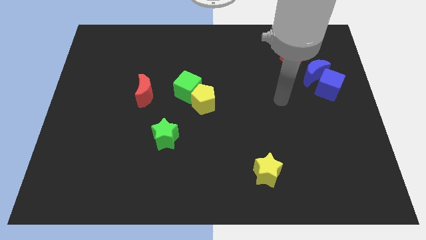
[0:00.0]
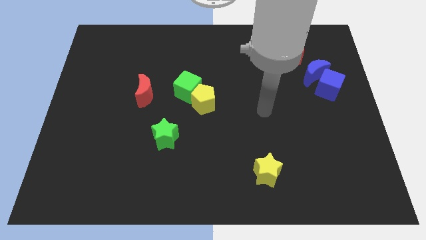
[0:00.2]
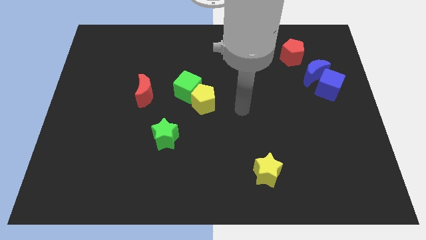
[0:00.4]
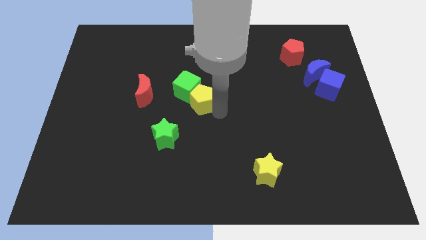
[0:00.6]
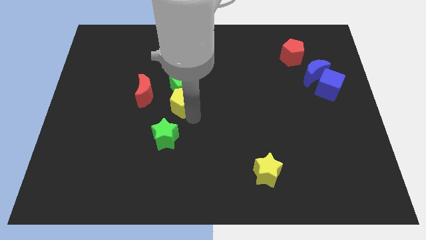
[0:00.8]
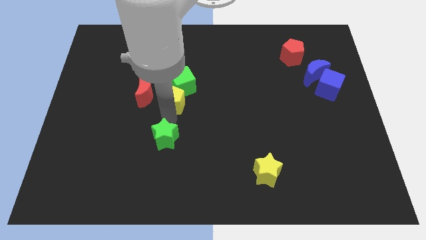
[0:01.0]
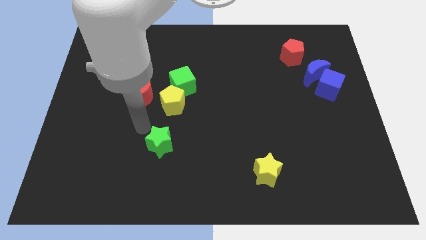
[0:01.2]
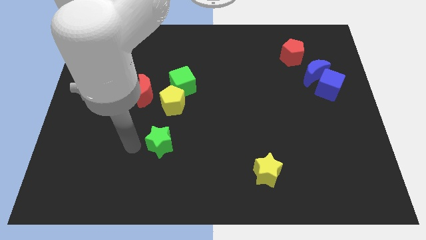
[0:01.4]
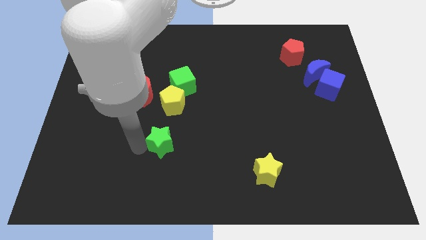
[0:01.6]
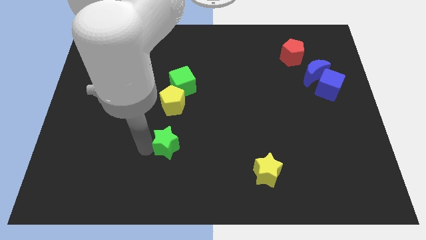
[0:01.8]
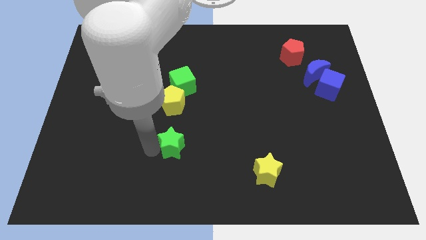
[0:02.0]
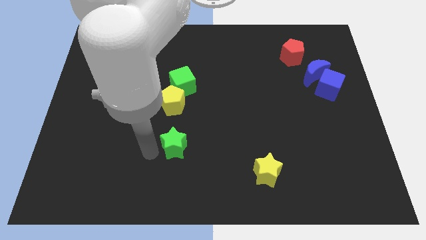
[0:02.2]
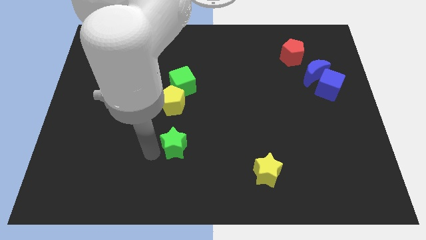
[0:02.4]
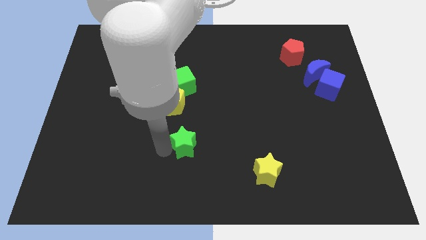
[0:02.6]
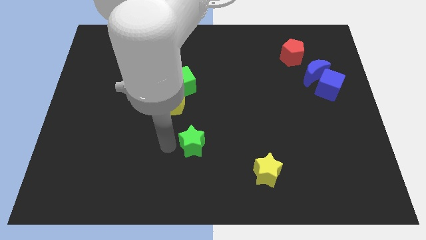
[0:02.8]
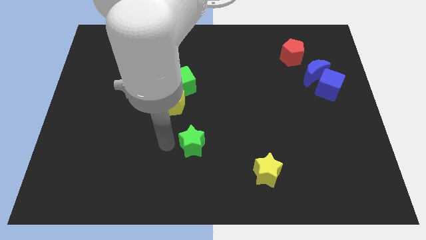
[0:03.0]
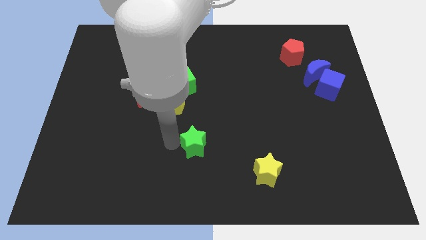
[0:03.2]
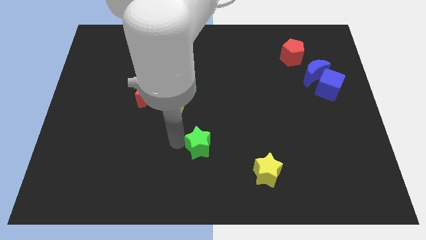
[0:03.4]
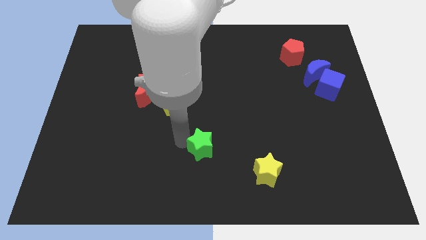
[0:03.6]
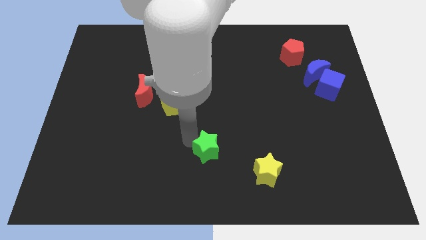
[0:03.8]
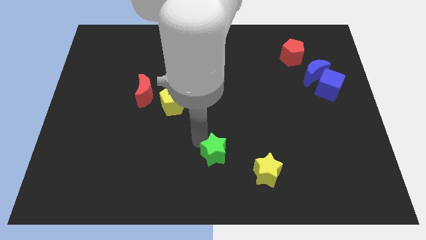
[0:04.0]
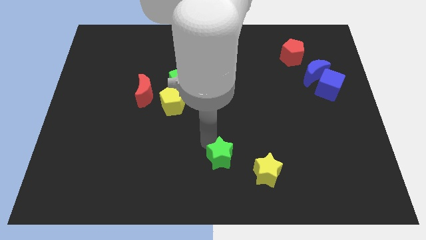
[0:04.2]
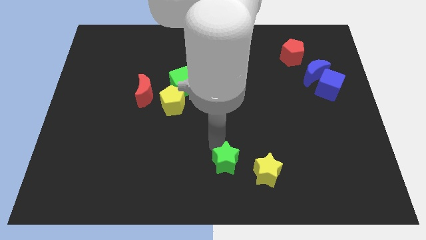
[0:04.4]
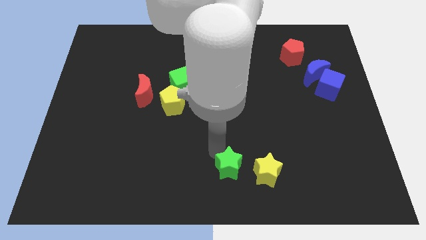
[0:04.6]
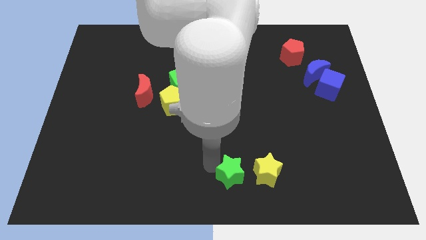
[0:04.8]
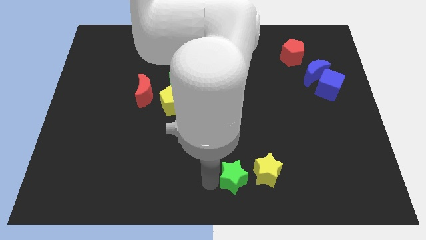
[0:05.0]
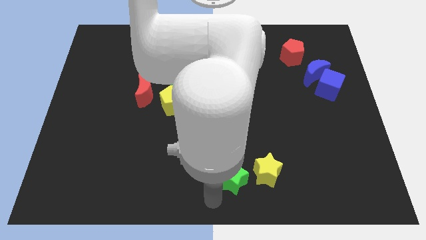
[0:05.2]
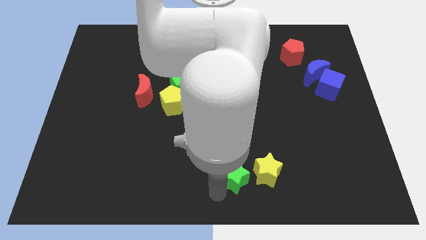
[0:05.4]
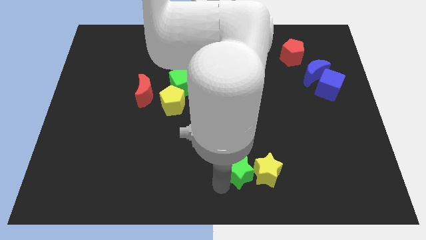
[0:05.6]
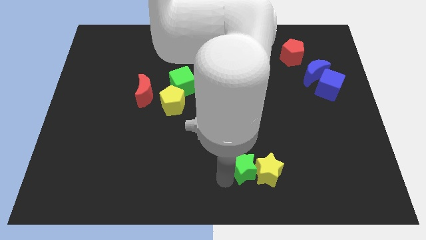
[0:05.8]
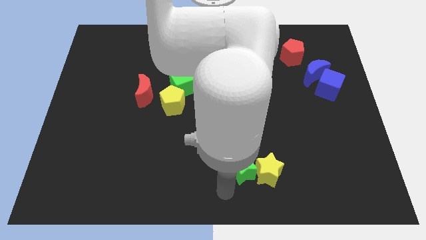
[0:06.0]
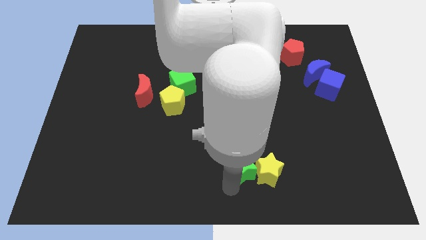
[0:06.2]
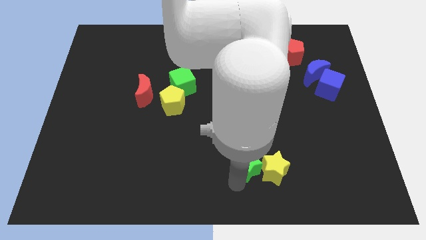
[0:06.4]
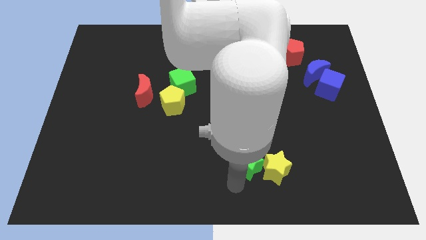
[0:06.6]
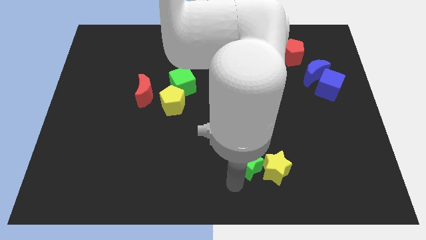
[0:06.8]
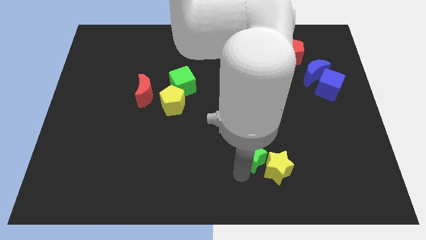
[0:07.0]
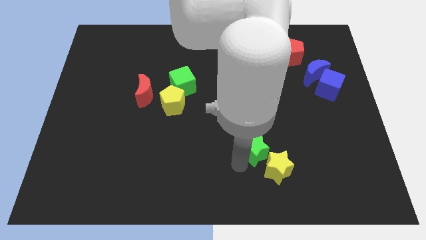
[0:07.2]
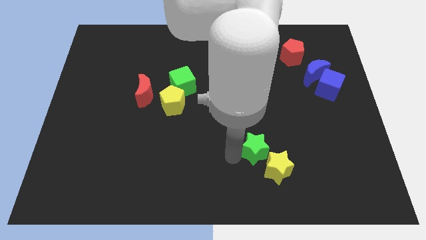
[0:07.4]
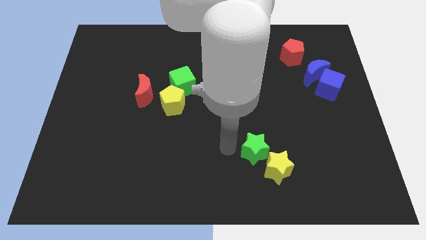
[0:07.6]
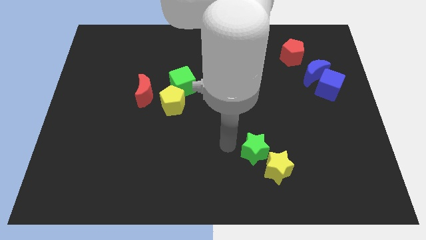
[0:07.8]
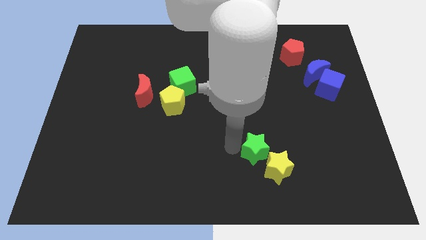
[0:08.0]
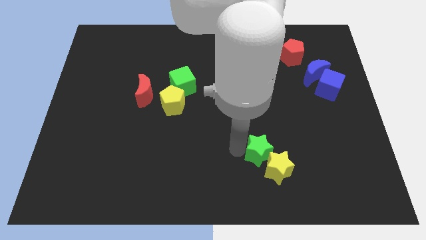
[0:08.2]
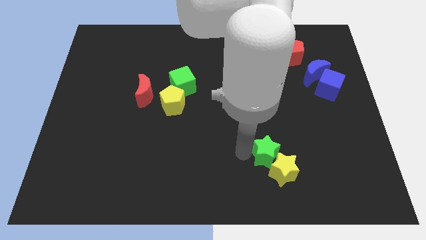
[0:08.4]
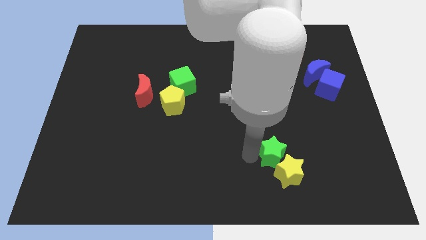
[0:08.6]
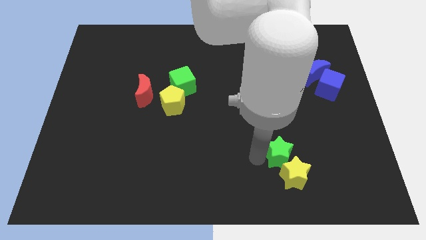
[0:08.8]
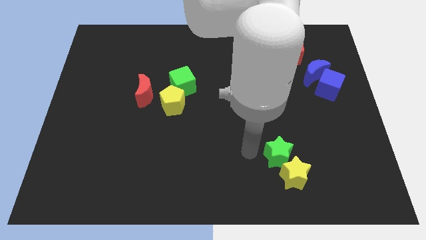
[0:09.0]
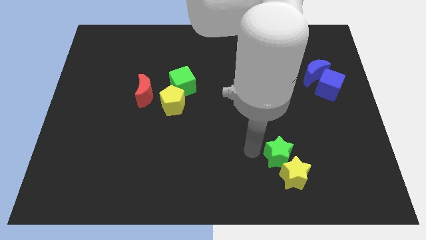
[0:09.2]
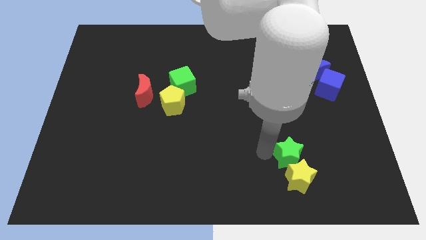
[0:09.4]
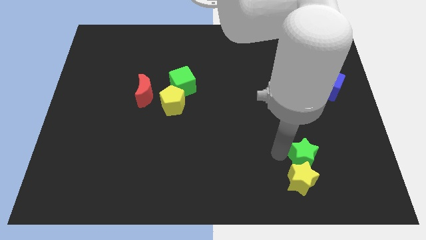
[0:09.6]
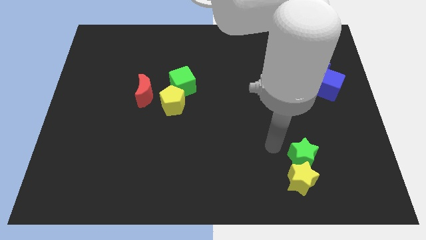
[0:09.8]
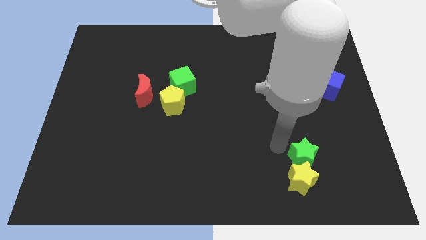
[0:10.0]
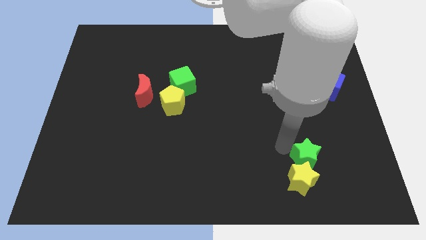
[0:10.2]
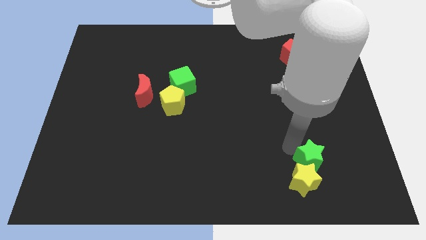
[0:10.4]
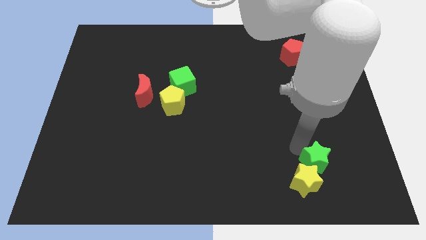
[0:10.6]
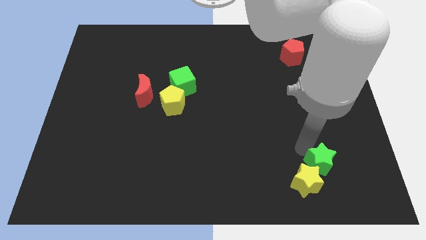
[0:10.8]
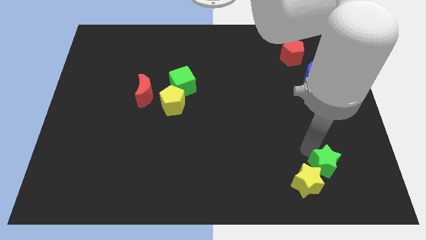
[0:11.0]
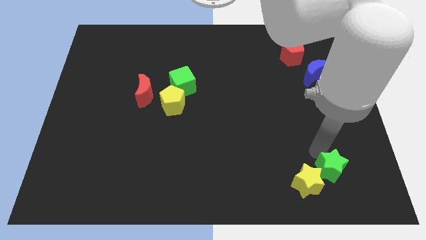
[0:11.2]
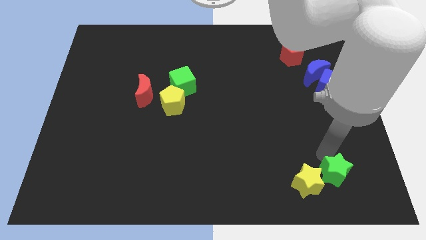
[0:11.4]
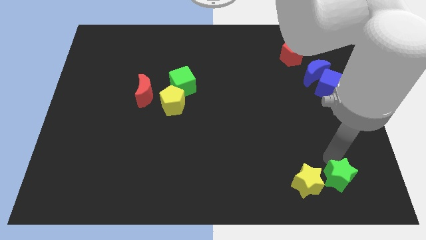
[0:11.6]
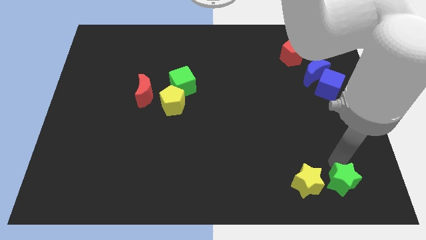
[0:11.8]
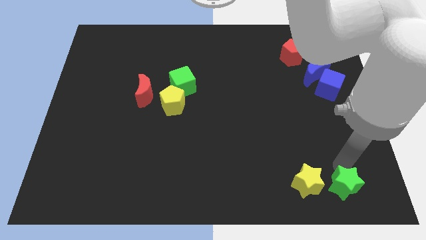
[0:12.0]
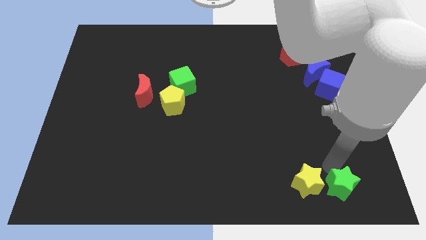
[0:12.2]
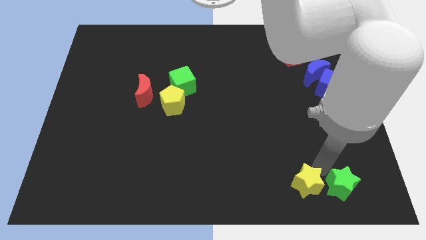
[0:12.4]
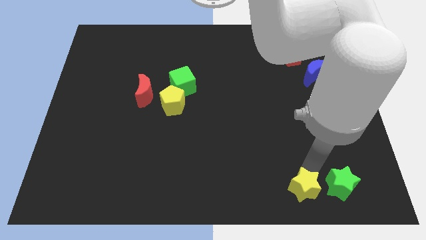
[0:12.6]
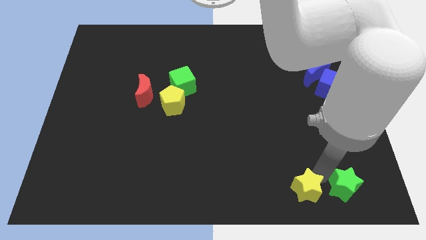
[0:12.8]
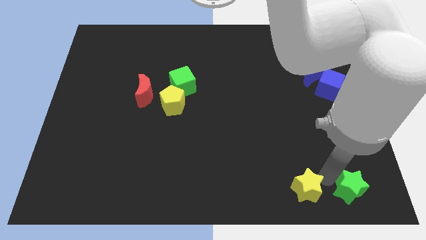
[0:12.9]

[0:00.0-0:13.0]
move the green star to the lower right corner

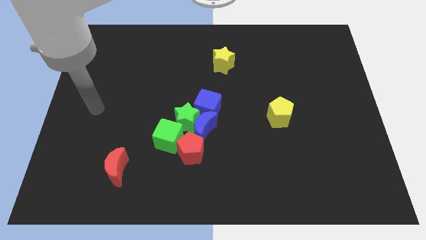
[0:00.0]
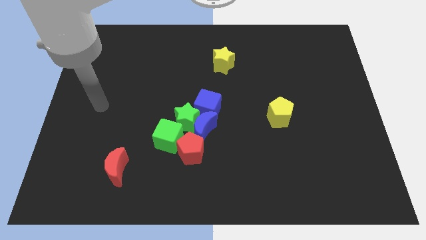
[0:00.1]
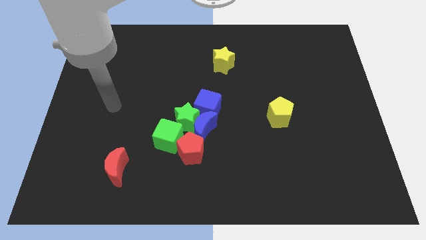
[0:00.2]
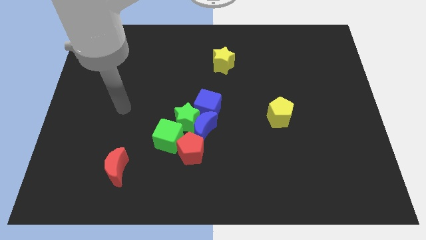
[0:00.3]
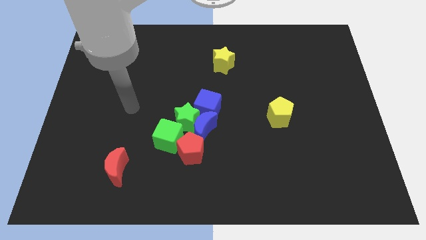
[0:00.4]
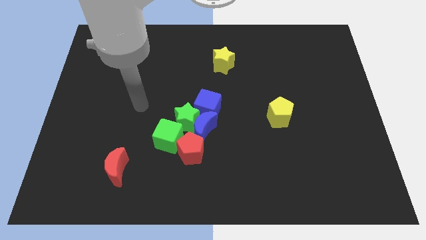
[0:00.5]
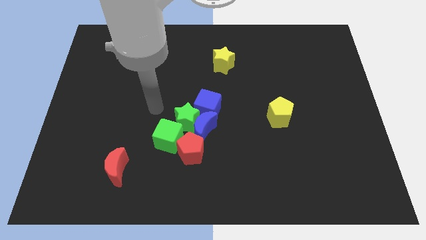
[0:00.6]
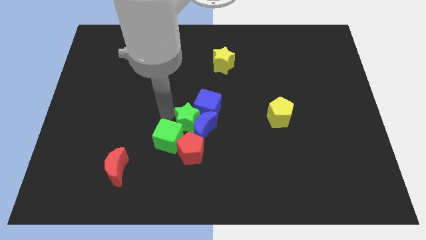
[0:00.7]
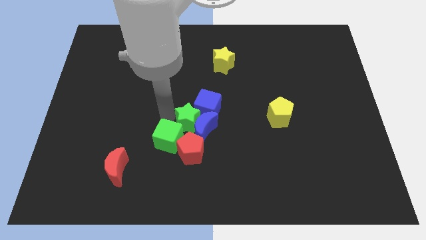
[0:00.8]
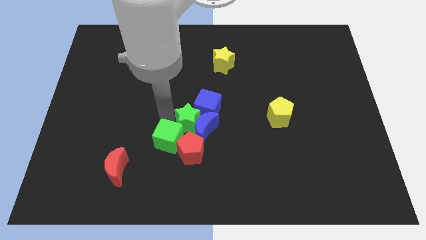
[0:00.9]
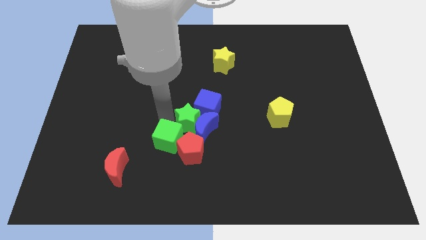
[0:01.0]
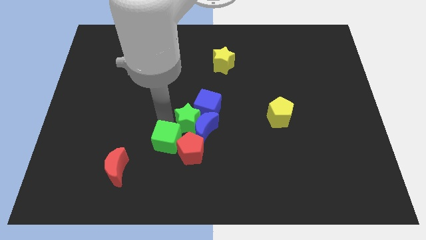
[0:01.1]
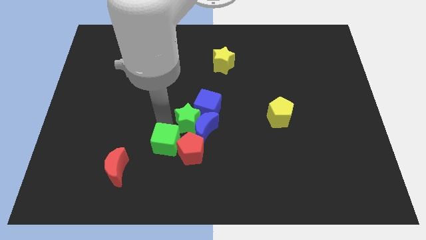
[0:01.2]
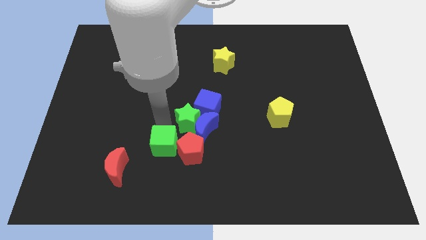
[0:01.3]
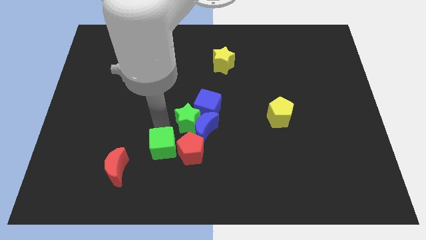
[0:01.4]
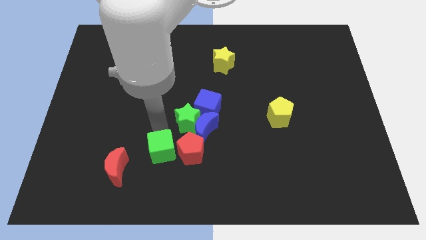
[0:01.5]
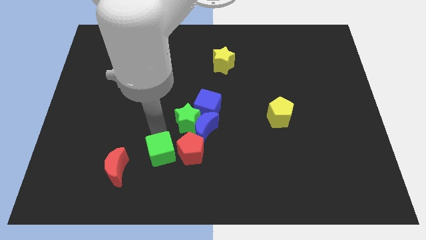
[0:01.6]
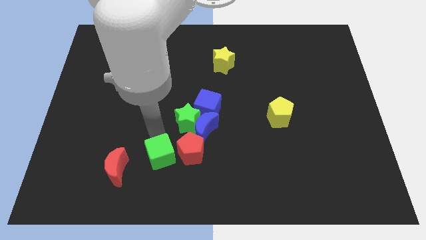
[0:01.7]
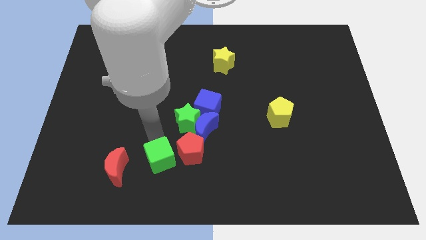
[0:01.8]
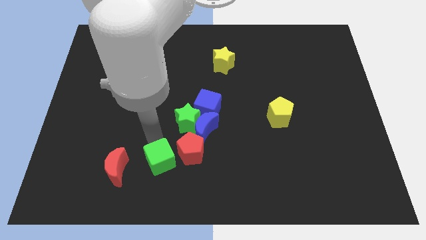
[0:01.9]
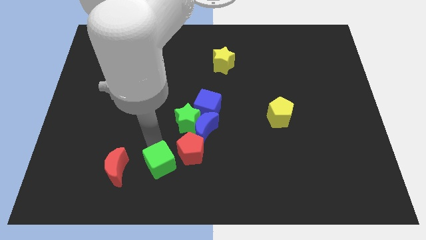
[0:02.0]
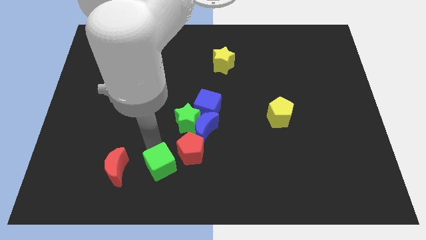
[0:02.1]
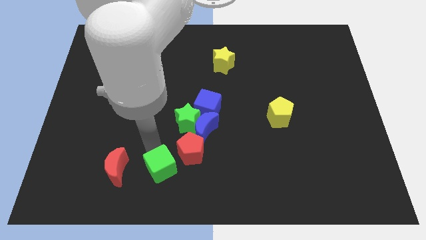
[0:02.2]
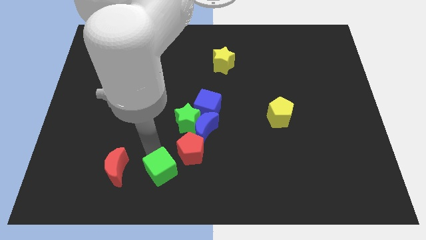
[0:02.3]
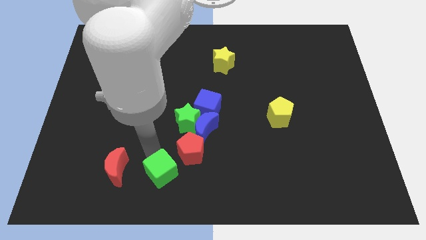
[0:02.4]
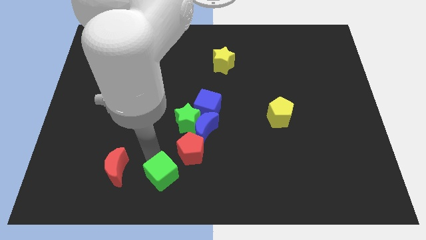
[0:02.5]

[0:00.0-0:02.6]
slide the green cube to the bottom
